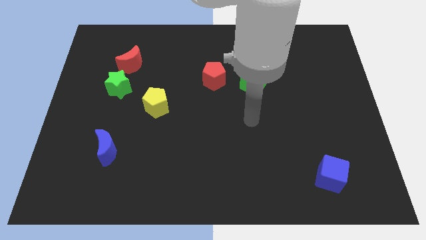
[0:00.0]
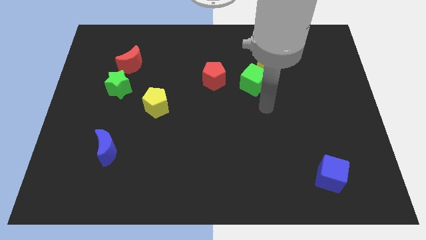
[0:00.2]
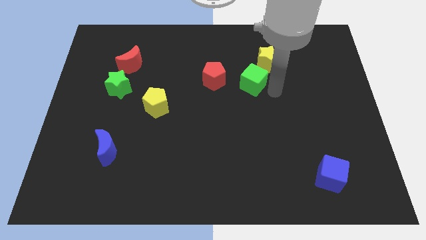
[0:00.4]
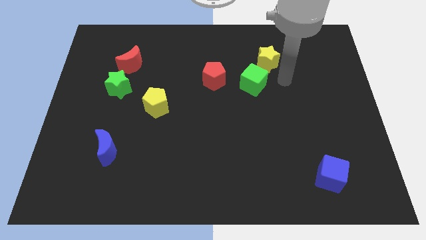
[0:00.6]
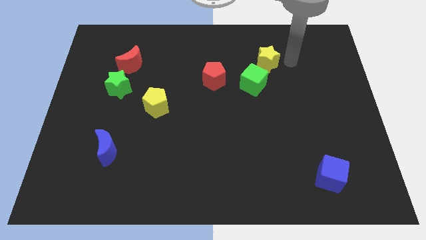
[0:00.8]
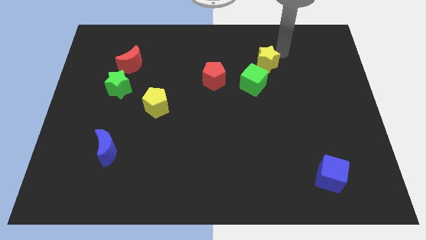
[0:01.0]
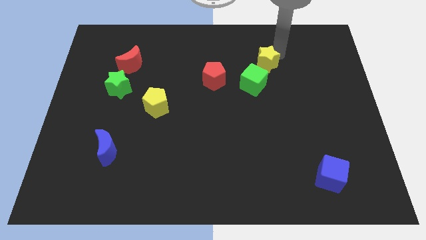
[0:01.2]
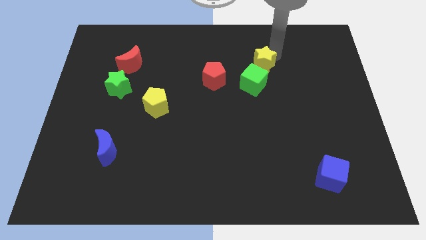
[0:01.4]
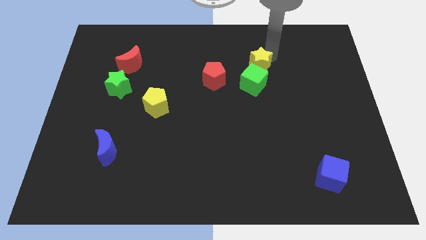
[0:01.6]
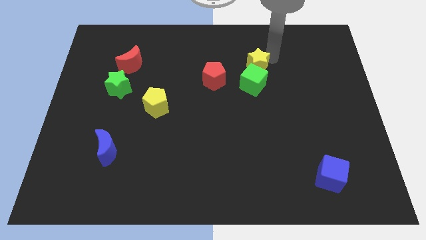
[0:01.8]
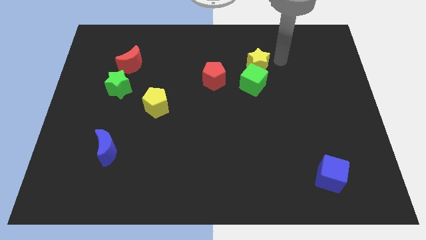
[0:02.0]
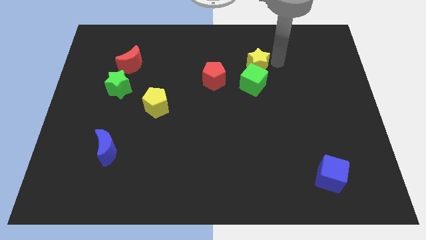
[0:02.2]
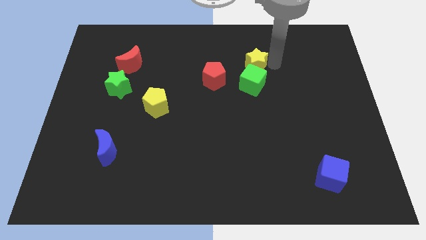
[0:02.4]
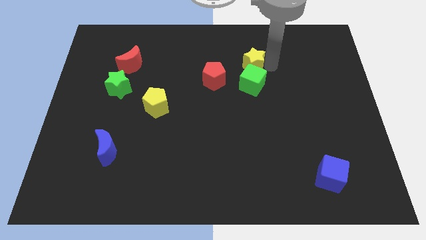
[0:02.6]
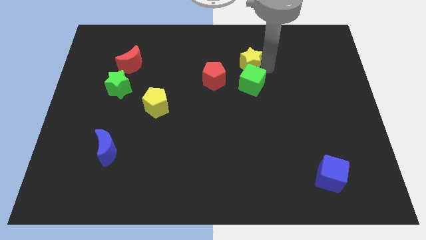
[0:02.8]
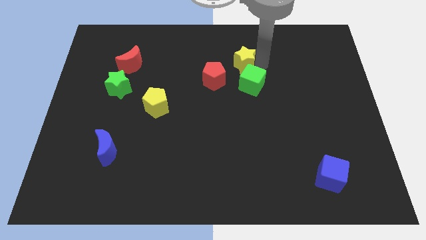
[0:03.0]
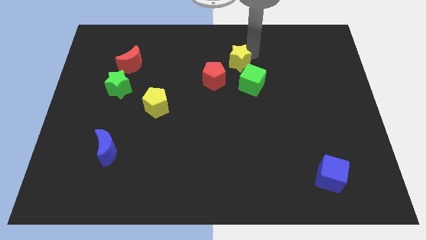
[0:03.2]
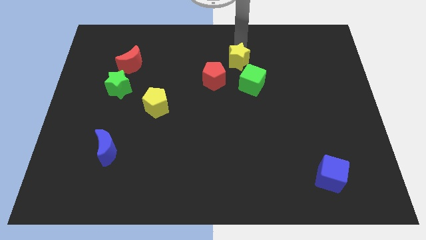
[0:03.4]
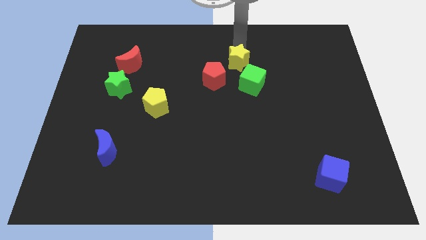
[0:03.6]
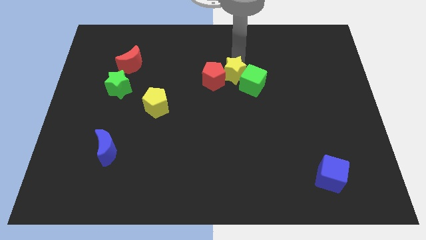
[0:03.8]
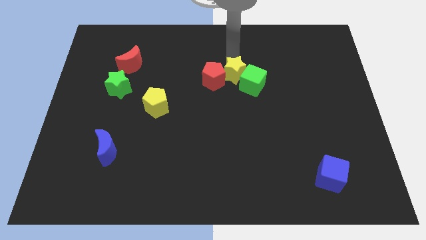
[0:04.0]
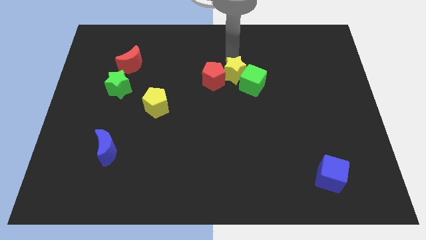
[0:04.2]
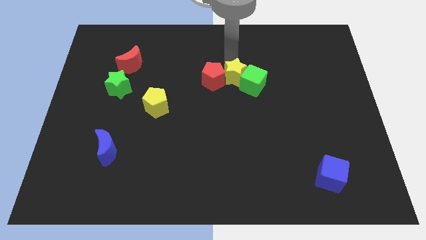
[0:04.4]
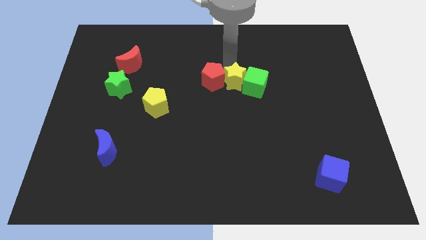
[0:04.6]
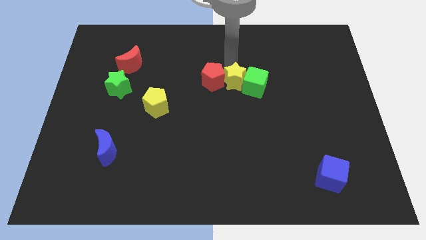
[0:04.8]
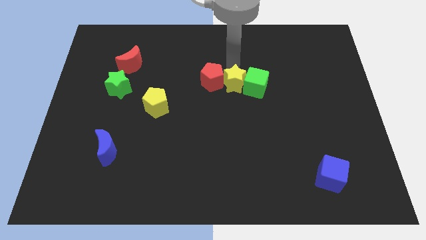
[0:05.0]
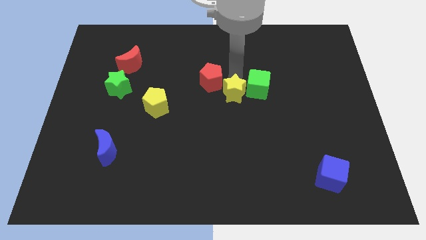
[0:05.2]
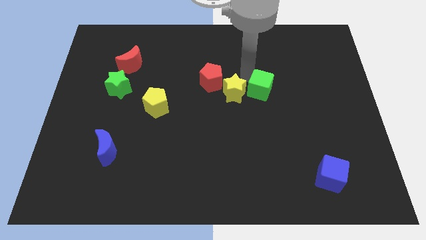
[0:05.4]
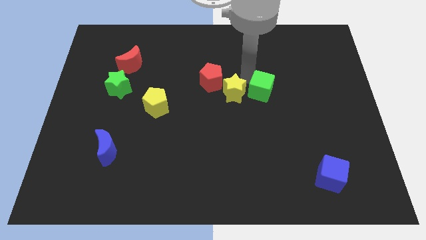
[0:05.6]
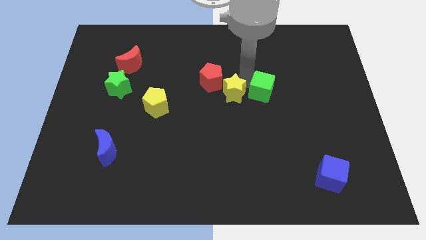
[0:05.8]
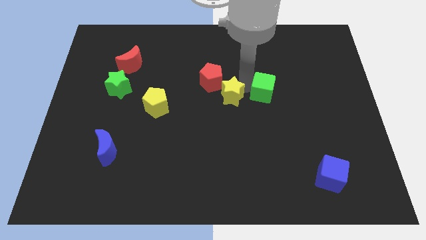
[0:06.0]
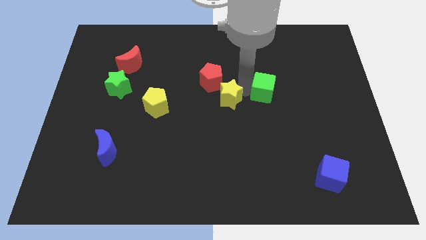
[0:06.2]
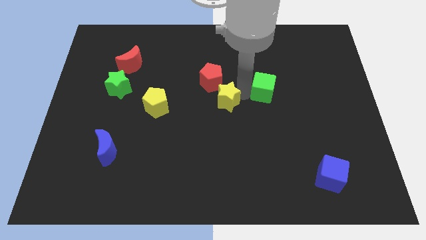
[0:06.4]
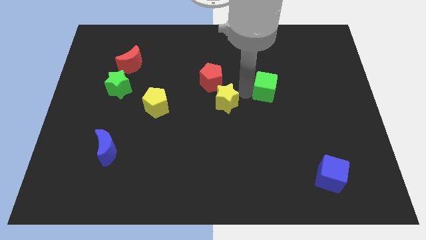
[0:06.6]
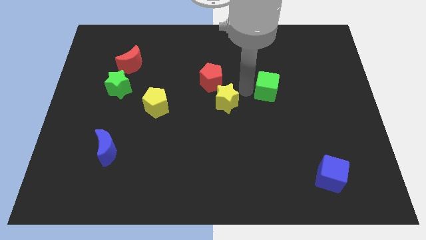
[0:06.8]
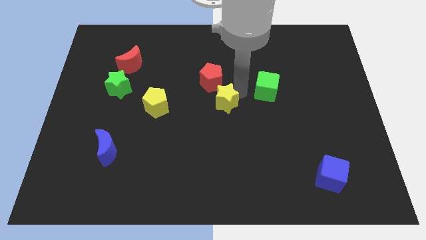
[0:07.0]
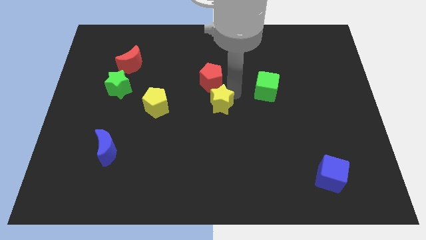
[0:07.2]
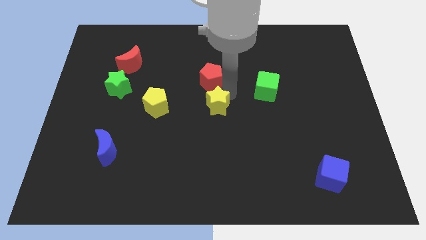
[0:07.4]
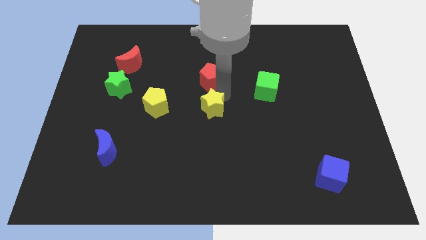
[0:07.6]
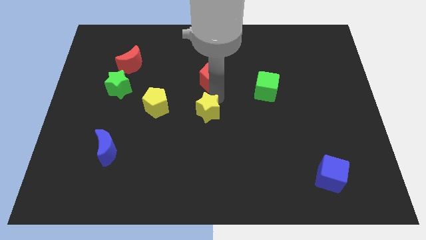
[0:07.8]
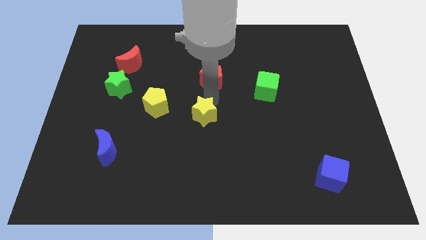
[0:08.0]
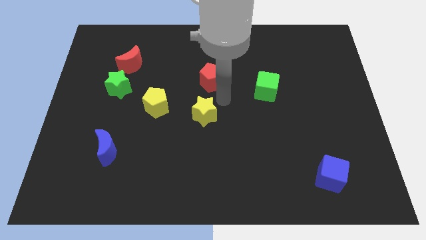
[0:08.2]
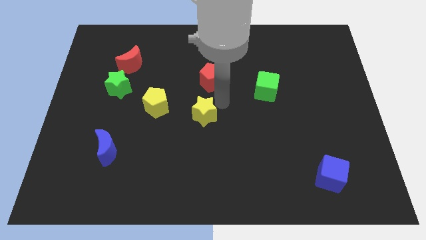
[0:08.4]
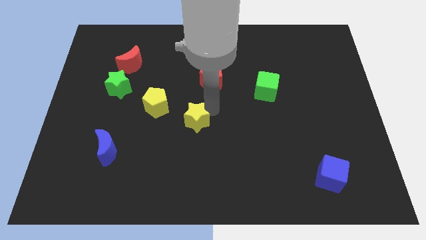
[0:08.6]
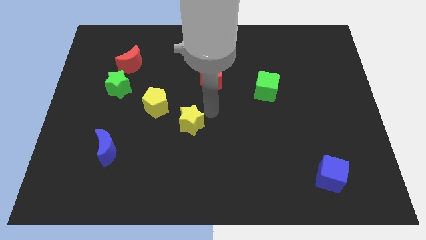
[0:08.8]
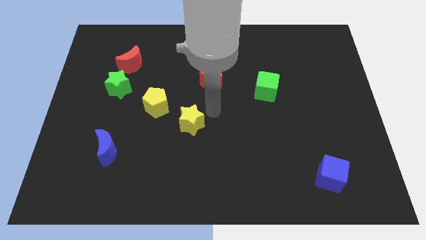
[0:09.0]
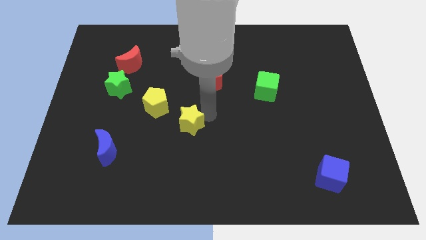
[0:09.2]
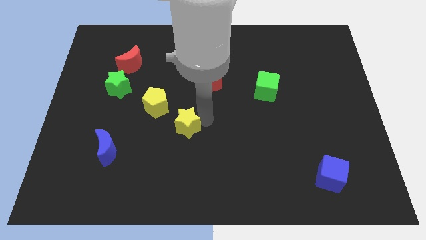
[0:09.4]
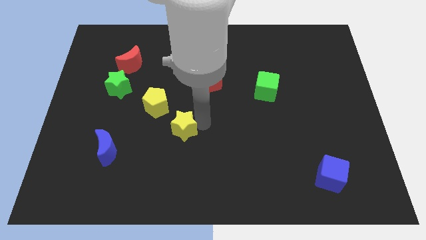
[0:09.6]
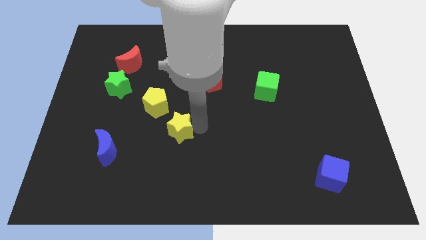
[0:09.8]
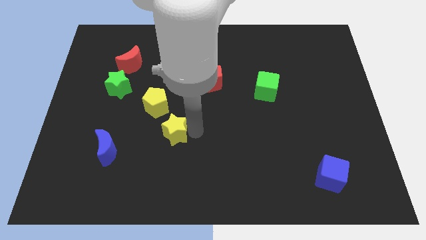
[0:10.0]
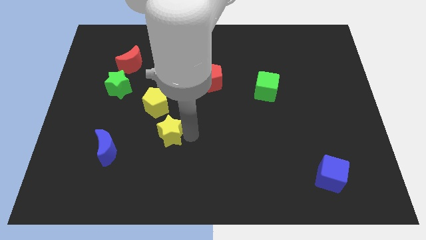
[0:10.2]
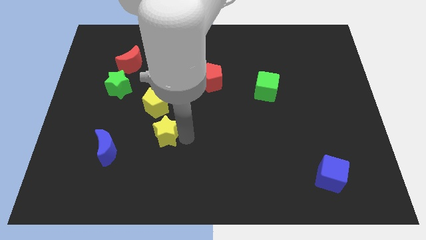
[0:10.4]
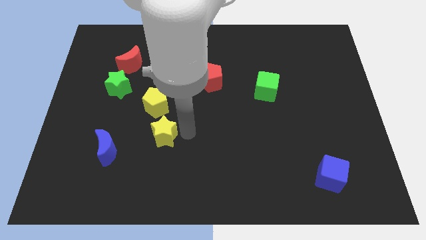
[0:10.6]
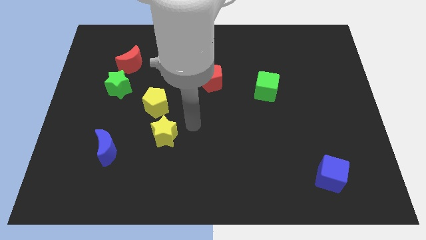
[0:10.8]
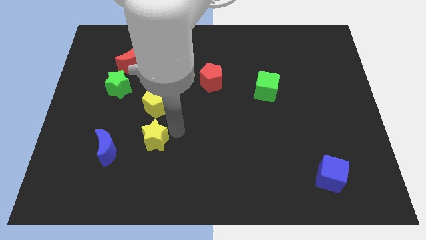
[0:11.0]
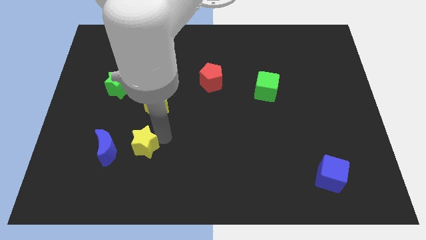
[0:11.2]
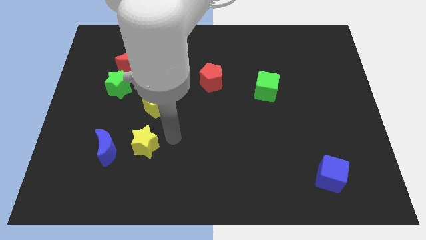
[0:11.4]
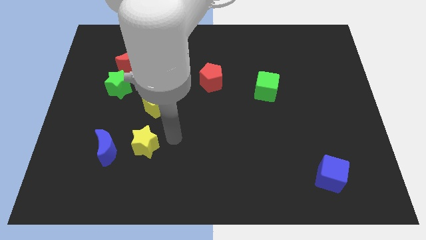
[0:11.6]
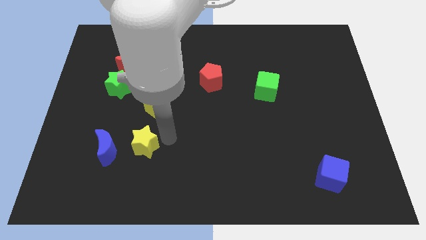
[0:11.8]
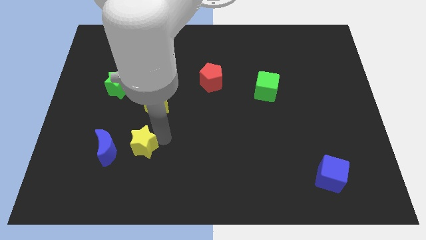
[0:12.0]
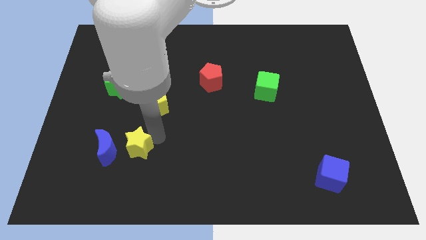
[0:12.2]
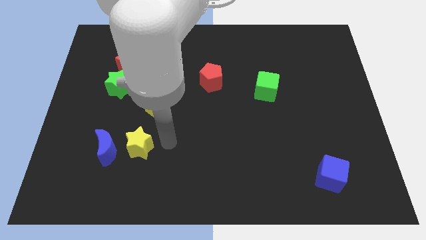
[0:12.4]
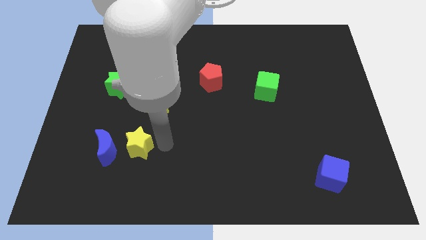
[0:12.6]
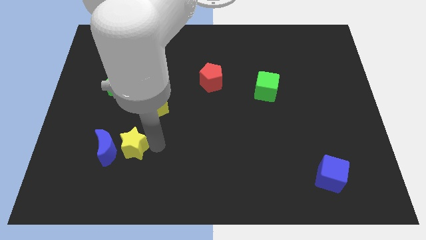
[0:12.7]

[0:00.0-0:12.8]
move the yellow star next to the blue moon

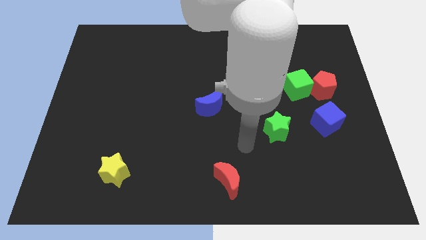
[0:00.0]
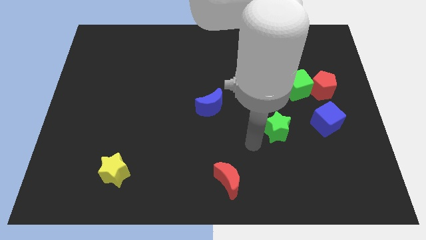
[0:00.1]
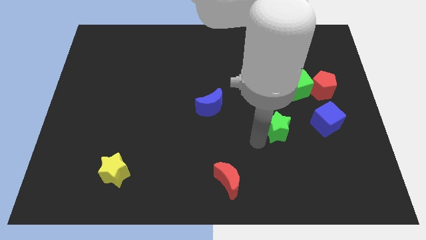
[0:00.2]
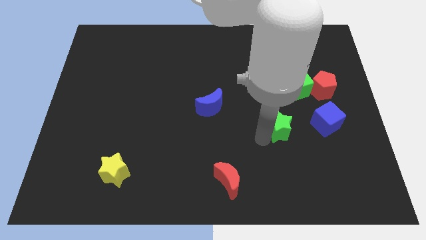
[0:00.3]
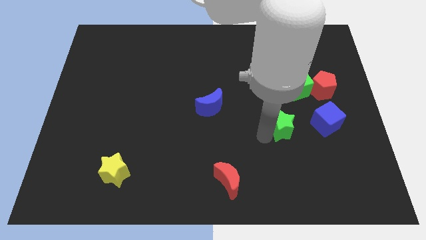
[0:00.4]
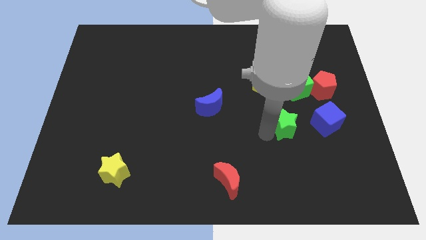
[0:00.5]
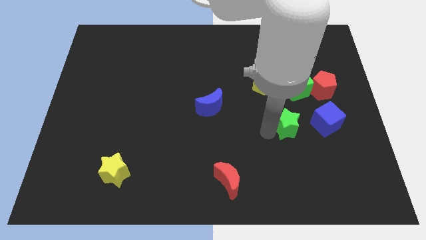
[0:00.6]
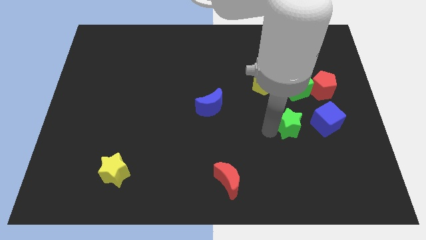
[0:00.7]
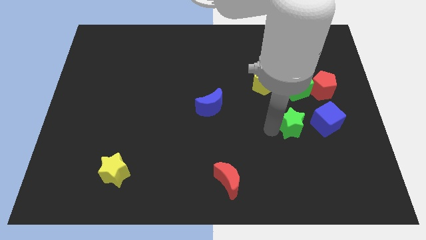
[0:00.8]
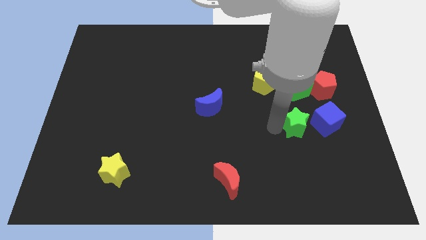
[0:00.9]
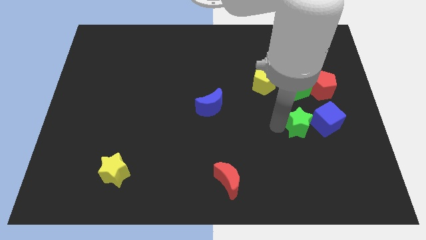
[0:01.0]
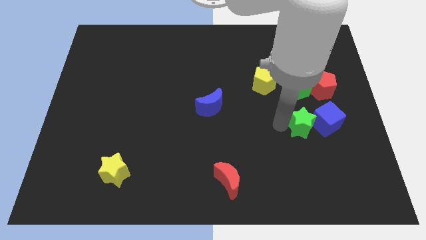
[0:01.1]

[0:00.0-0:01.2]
slide the green star towards the blue cube
